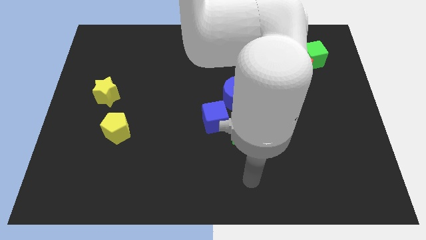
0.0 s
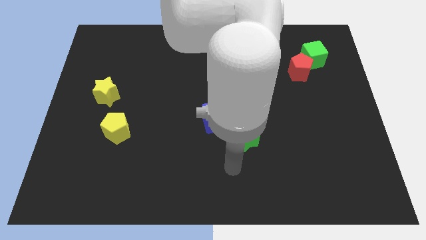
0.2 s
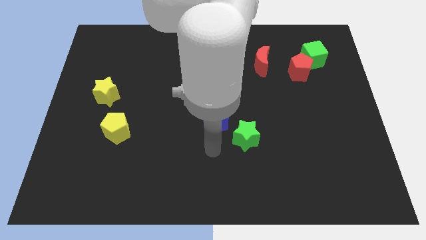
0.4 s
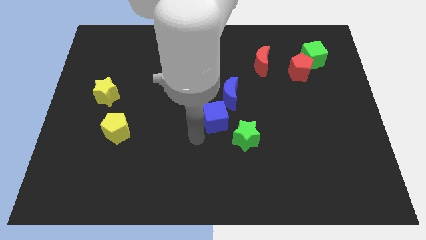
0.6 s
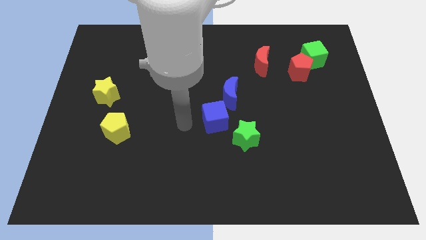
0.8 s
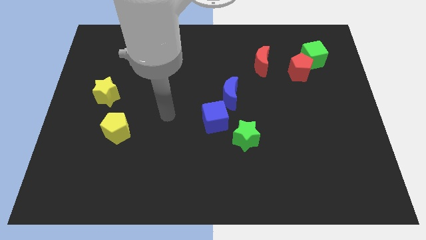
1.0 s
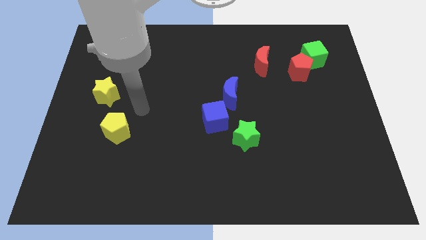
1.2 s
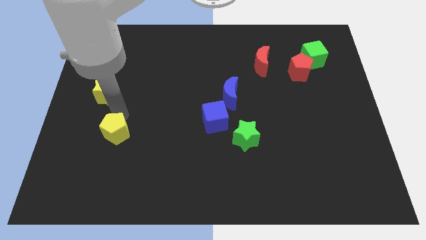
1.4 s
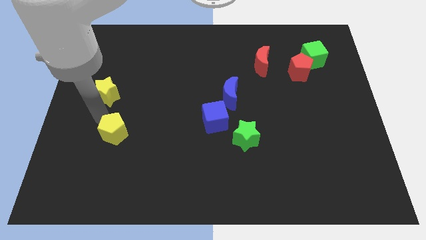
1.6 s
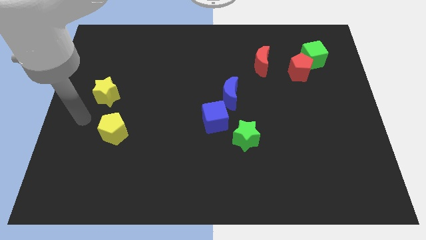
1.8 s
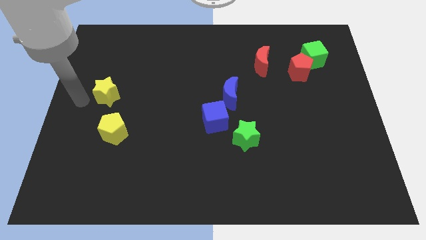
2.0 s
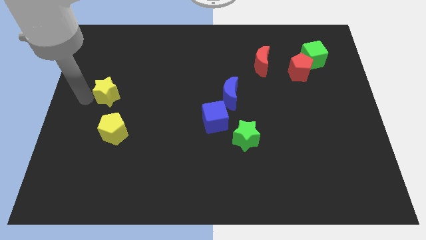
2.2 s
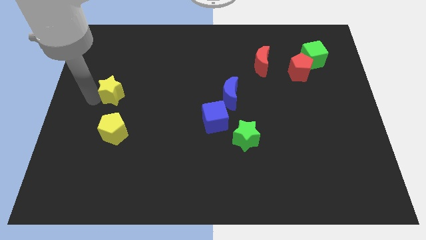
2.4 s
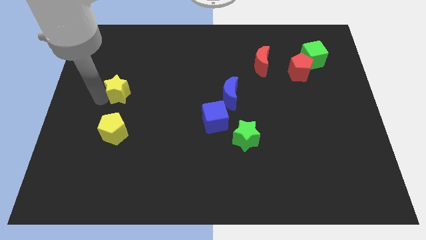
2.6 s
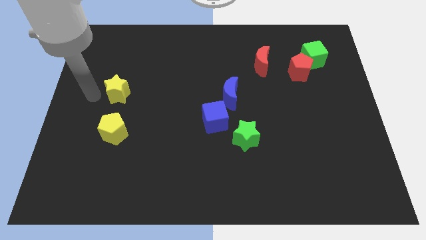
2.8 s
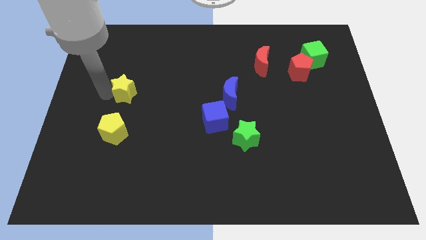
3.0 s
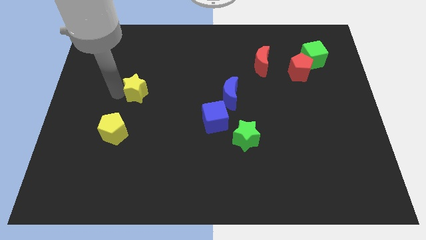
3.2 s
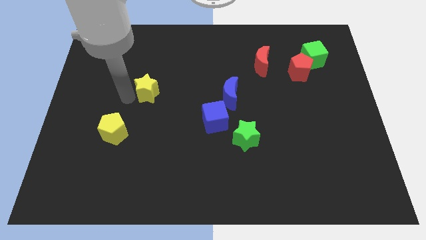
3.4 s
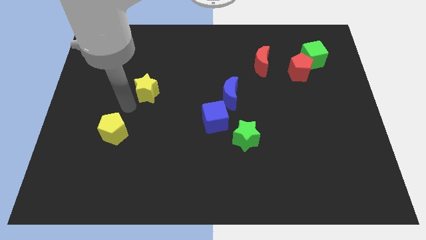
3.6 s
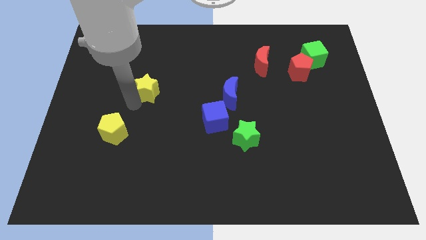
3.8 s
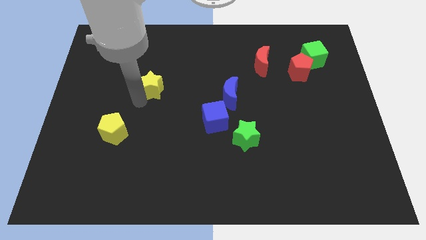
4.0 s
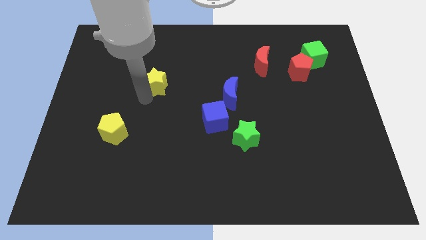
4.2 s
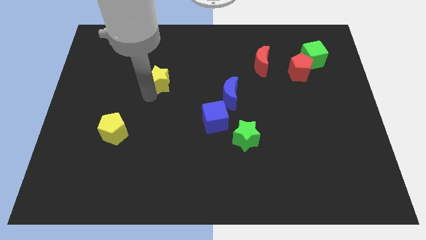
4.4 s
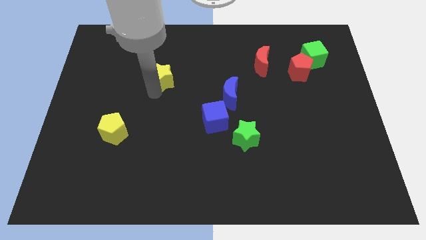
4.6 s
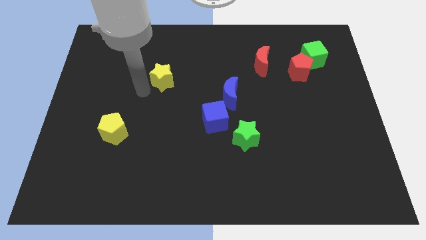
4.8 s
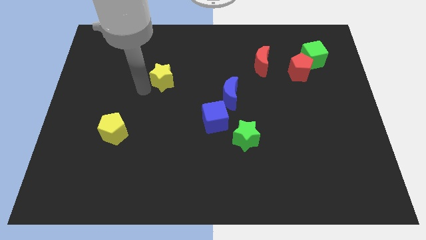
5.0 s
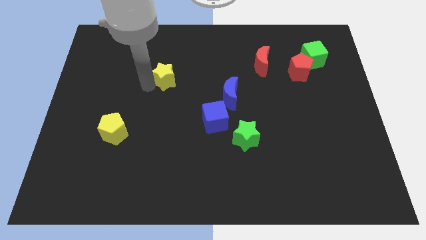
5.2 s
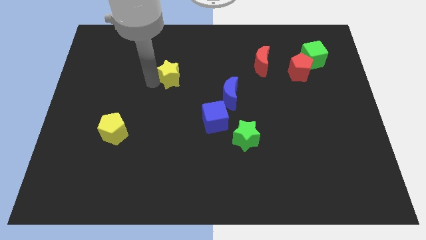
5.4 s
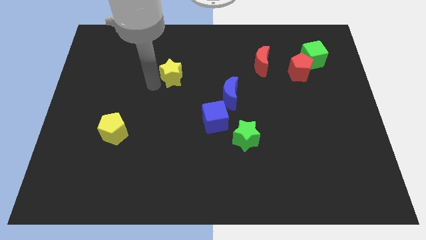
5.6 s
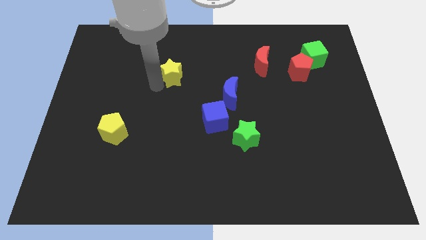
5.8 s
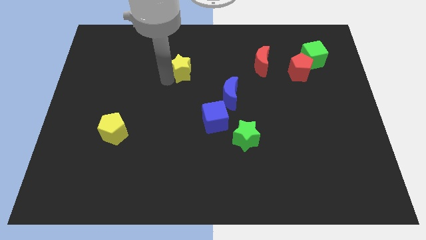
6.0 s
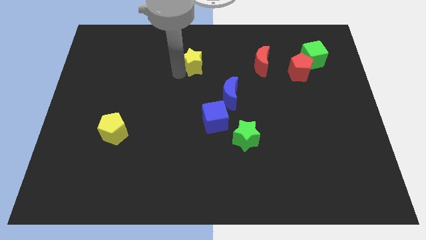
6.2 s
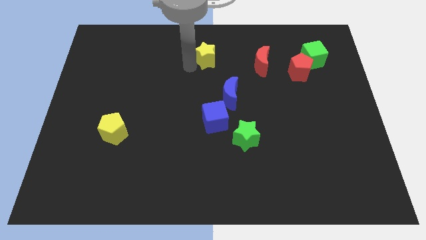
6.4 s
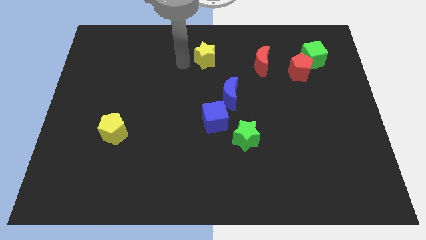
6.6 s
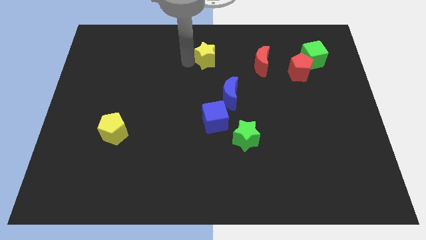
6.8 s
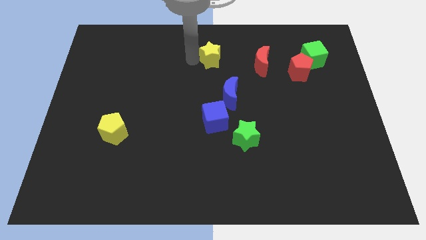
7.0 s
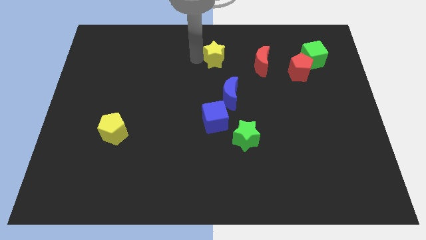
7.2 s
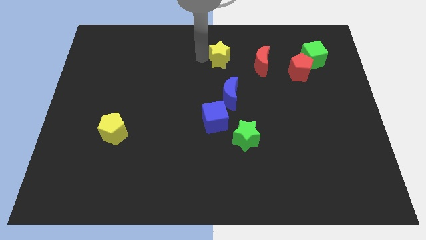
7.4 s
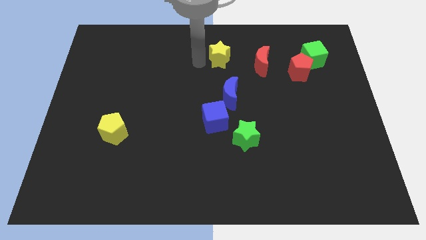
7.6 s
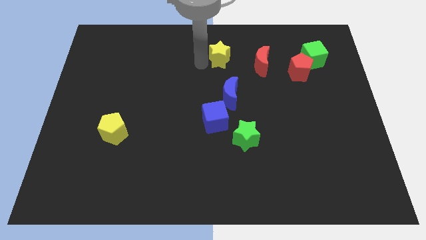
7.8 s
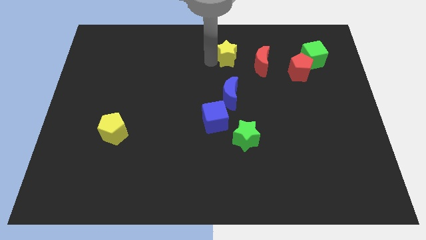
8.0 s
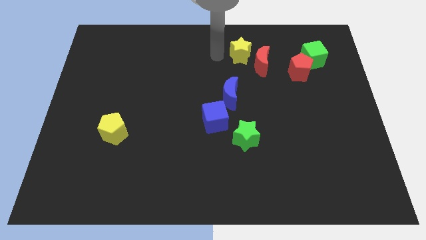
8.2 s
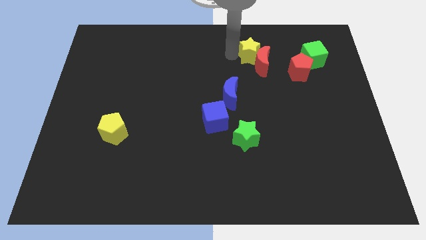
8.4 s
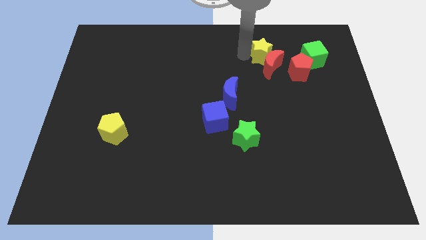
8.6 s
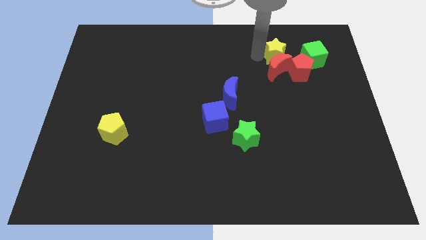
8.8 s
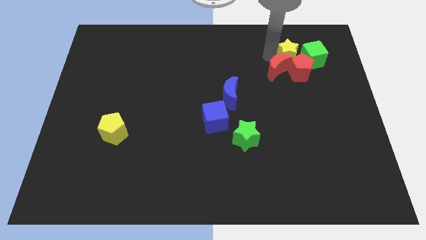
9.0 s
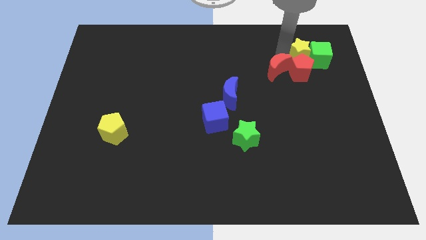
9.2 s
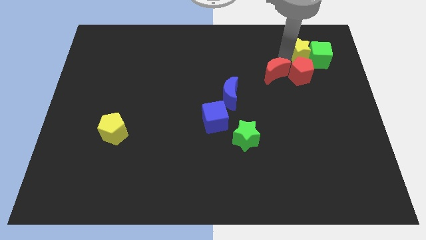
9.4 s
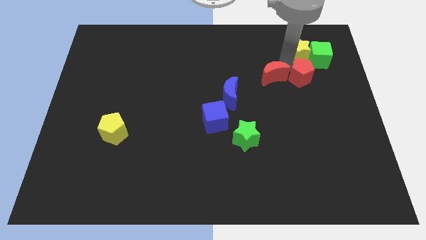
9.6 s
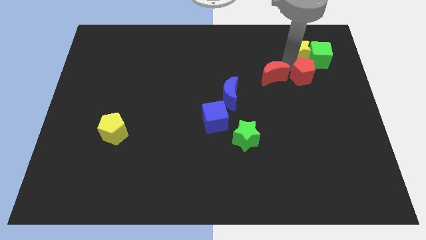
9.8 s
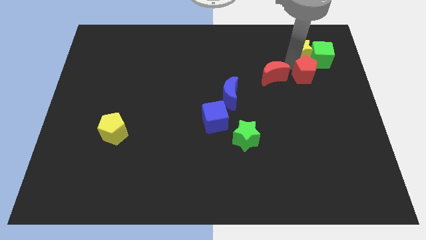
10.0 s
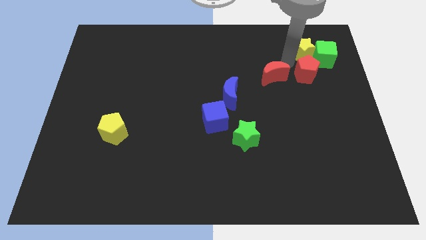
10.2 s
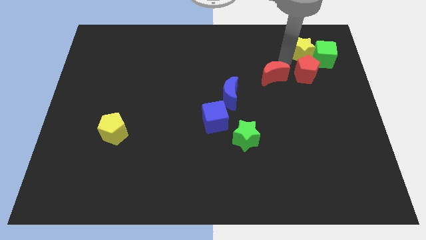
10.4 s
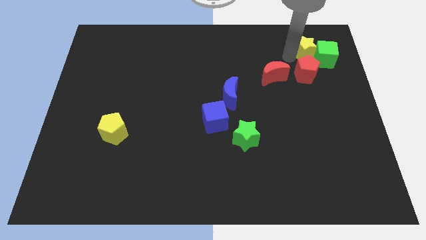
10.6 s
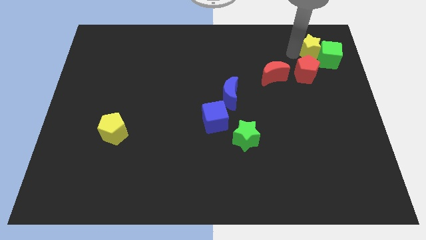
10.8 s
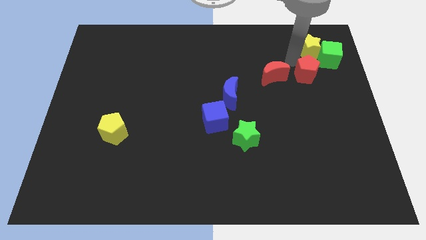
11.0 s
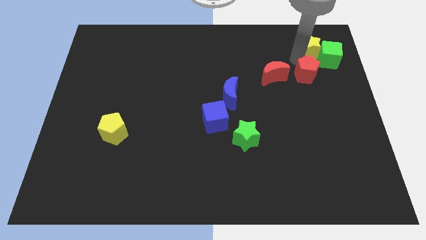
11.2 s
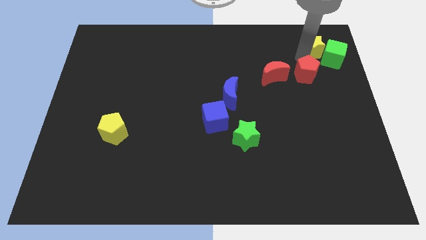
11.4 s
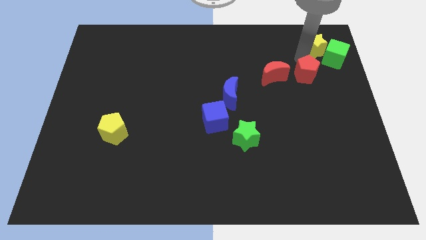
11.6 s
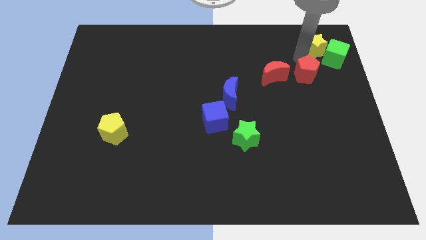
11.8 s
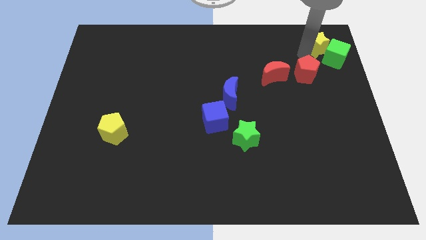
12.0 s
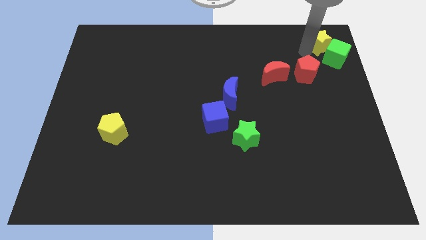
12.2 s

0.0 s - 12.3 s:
push the yellow star to the top right corner
